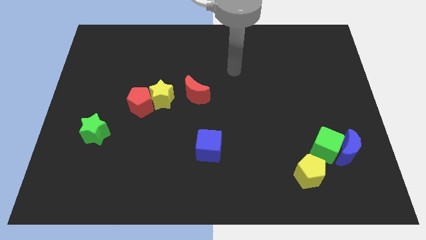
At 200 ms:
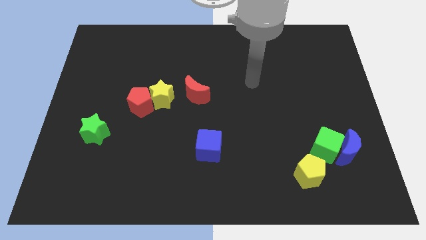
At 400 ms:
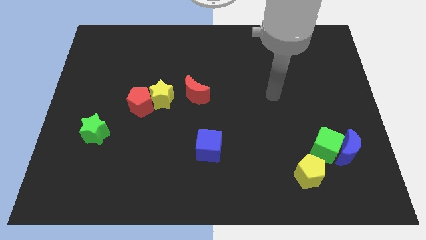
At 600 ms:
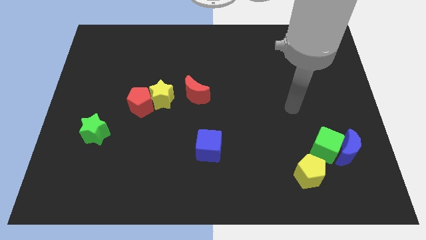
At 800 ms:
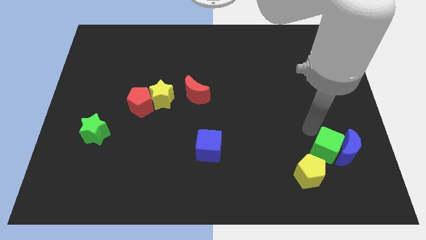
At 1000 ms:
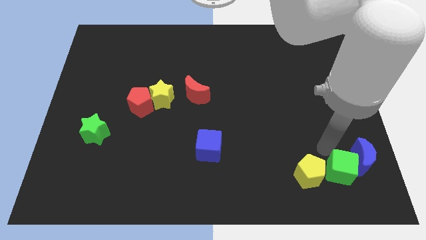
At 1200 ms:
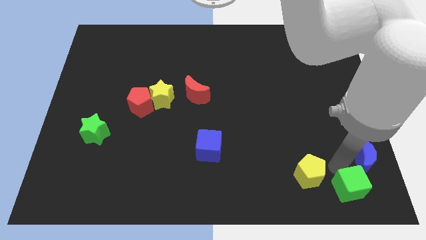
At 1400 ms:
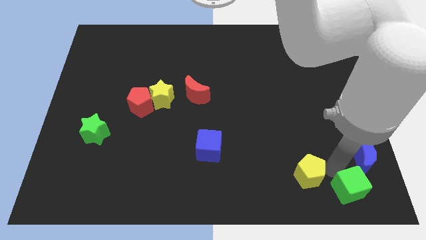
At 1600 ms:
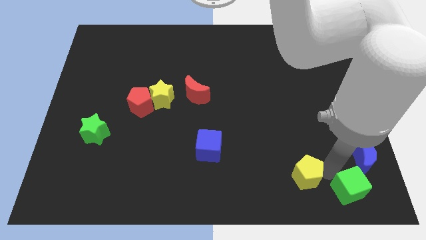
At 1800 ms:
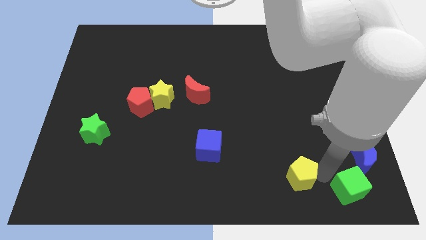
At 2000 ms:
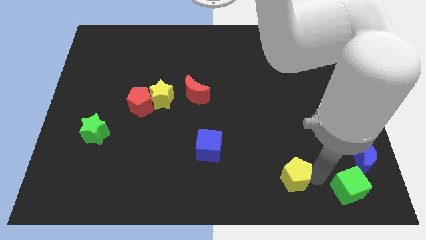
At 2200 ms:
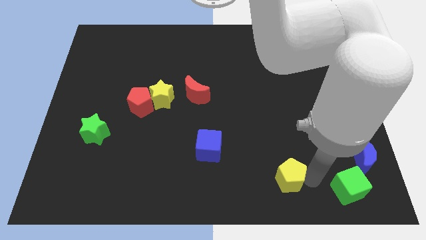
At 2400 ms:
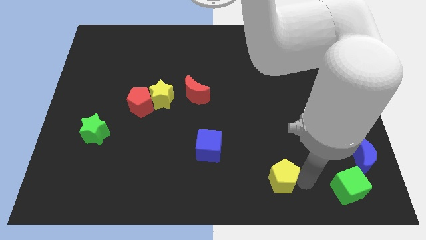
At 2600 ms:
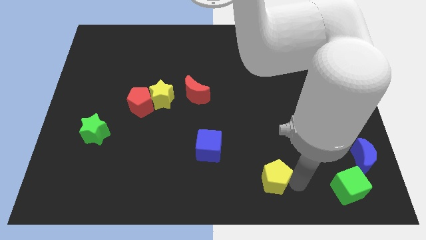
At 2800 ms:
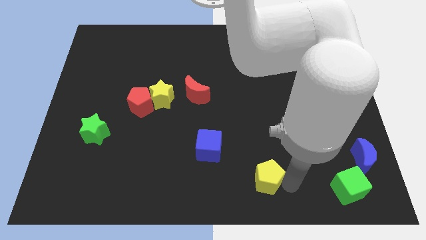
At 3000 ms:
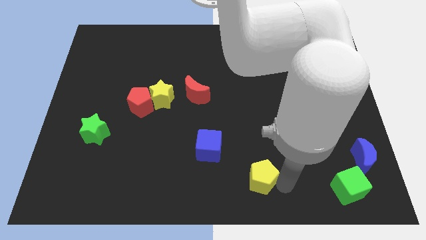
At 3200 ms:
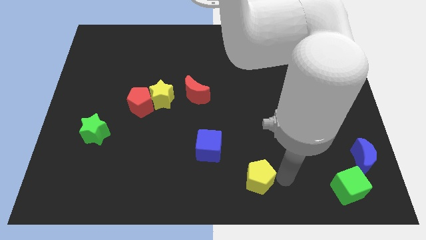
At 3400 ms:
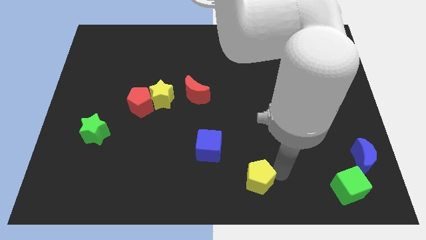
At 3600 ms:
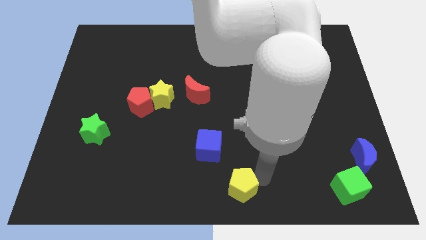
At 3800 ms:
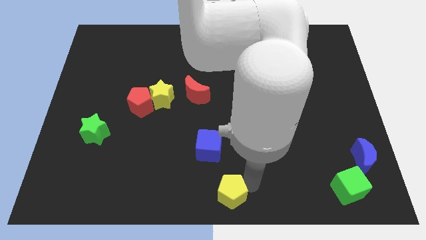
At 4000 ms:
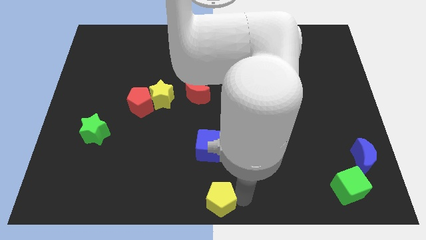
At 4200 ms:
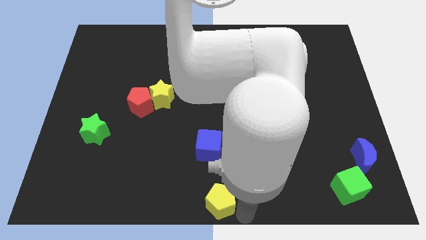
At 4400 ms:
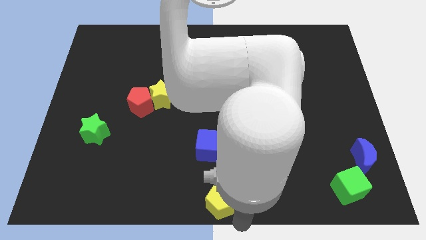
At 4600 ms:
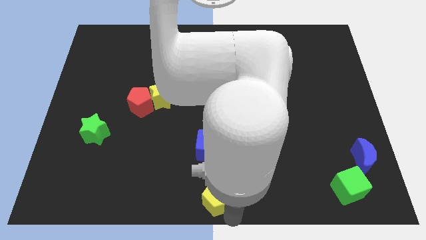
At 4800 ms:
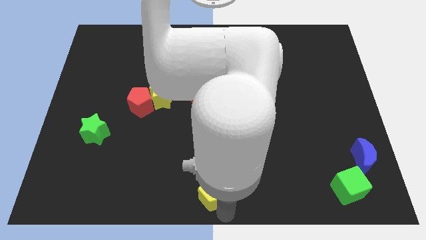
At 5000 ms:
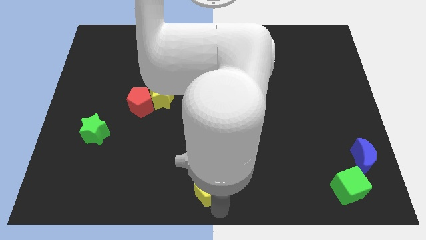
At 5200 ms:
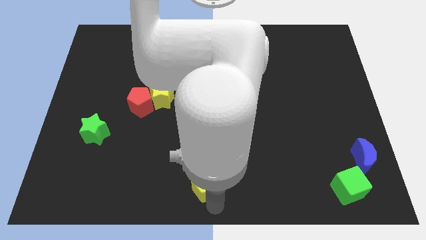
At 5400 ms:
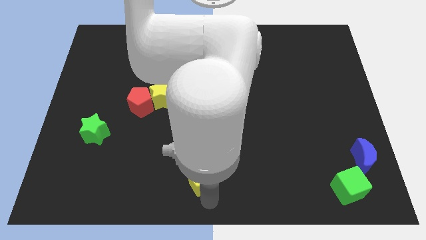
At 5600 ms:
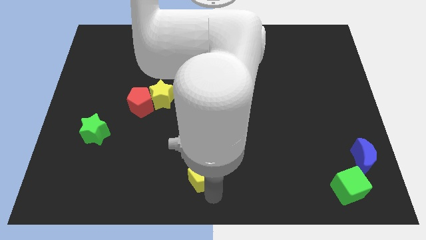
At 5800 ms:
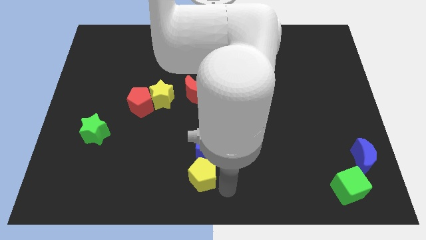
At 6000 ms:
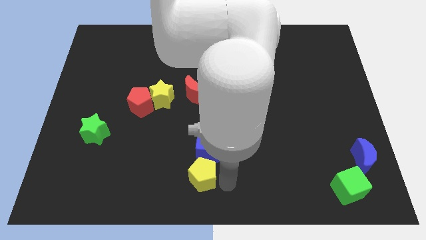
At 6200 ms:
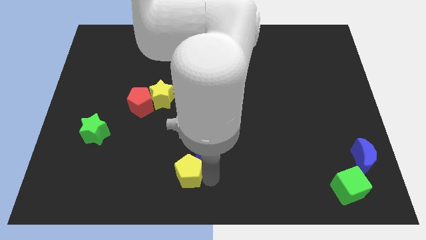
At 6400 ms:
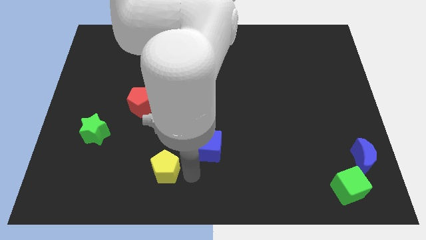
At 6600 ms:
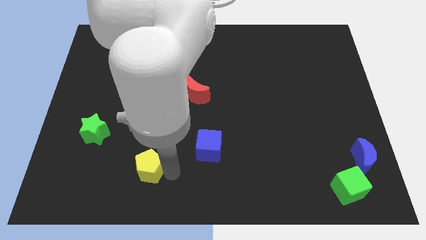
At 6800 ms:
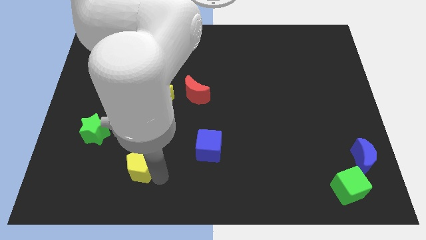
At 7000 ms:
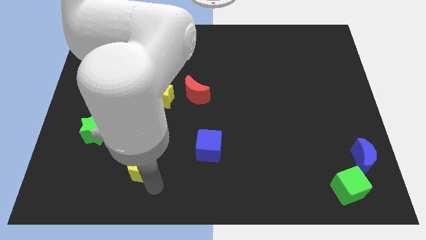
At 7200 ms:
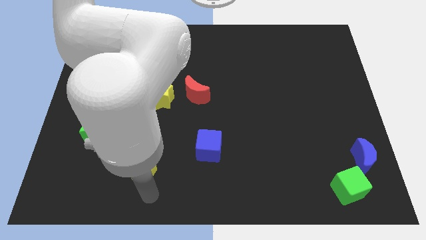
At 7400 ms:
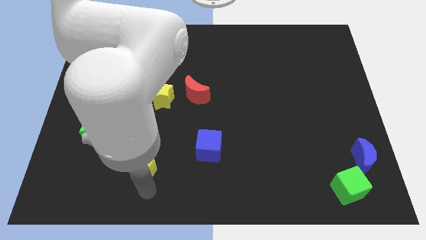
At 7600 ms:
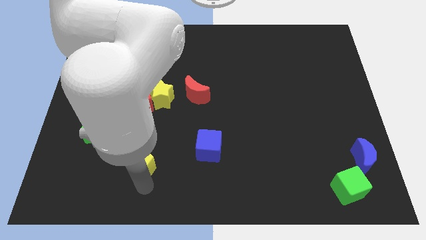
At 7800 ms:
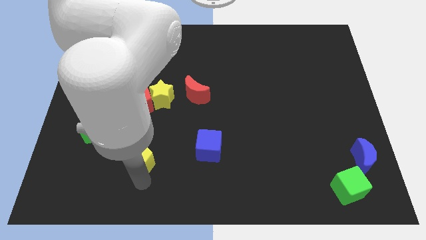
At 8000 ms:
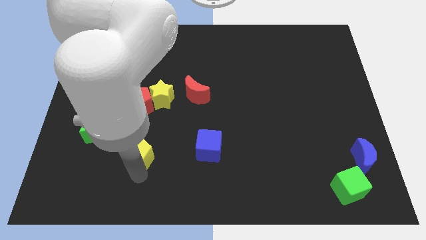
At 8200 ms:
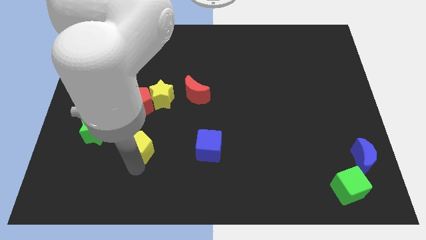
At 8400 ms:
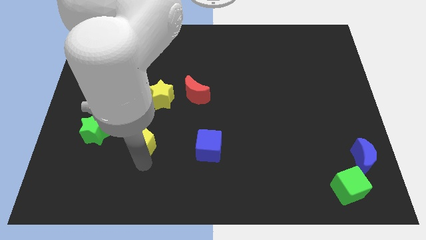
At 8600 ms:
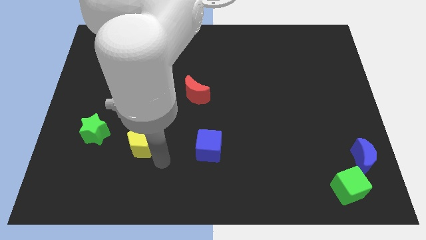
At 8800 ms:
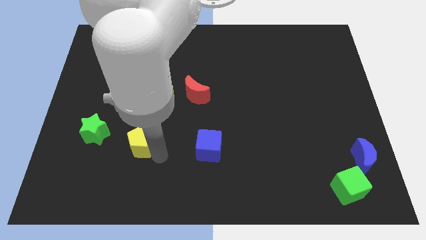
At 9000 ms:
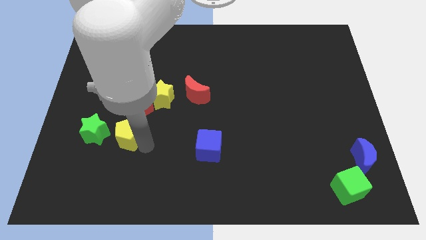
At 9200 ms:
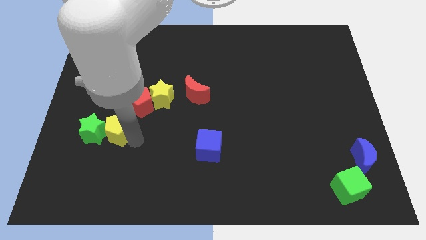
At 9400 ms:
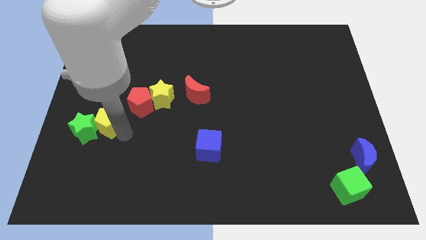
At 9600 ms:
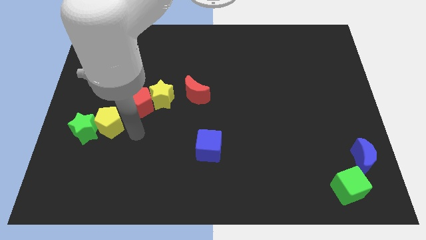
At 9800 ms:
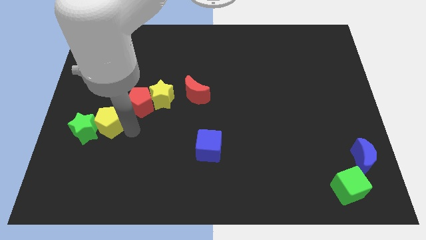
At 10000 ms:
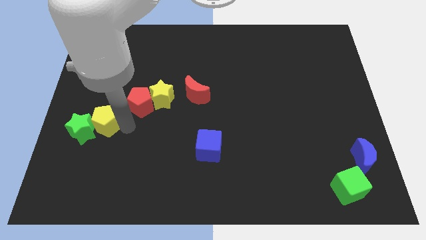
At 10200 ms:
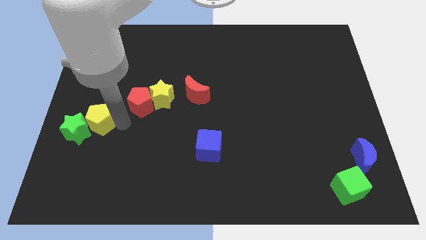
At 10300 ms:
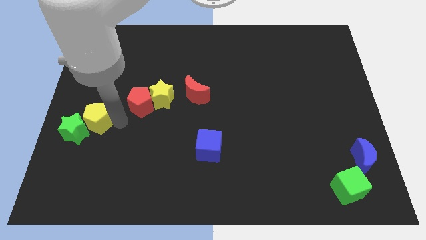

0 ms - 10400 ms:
slide the yellow pentagon to the center left

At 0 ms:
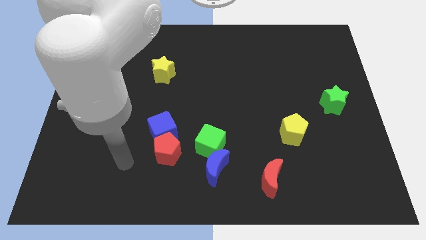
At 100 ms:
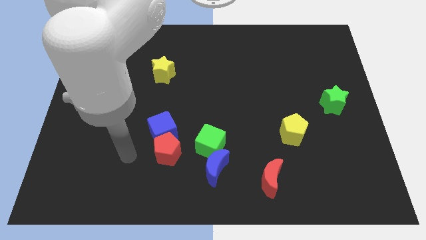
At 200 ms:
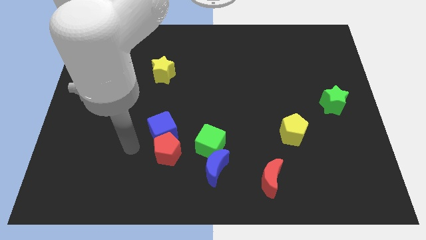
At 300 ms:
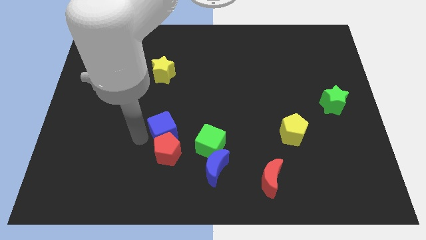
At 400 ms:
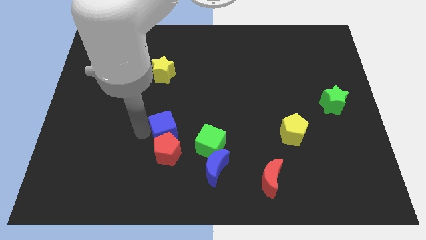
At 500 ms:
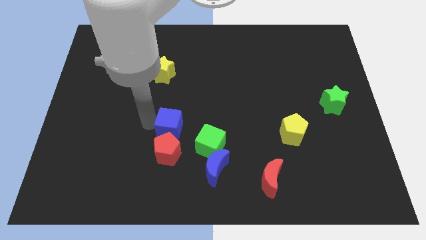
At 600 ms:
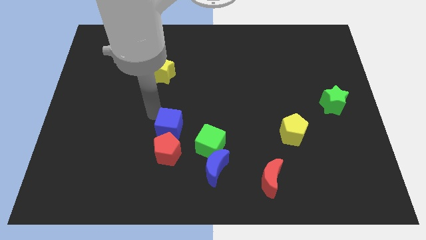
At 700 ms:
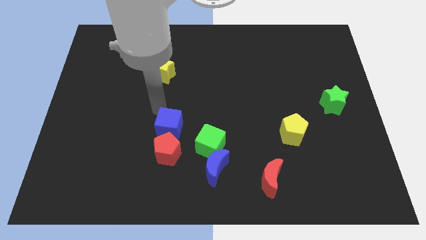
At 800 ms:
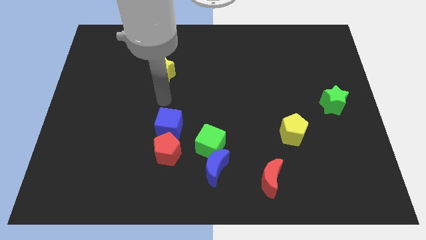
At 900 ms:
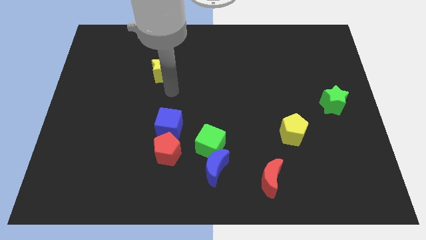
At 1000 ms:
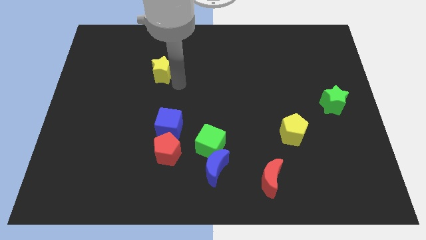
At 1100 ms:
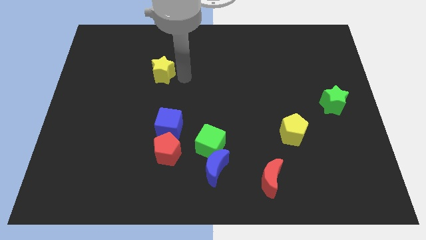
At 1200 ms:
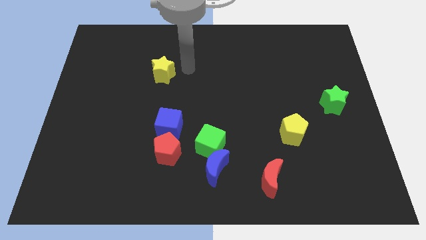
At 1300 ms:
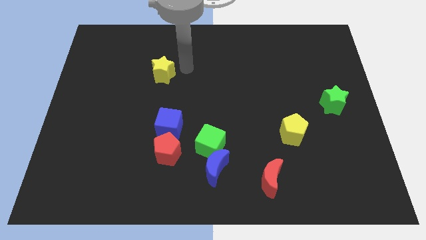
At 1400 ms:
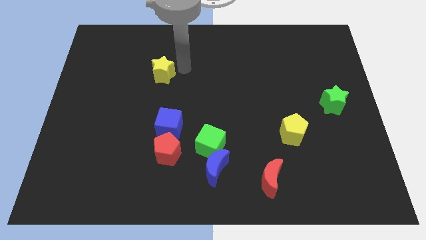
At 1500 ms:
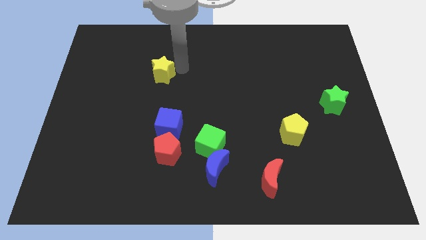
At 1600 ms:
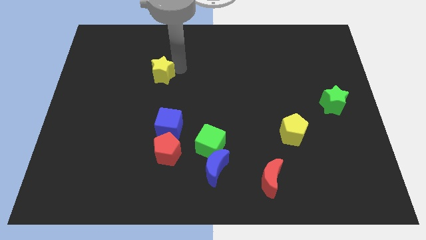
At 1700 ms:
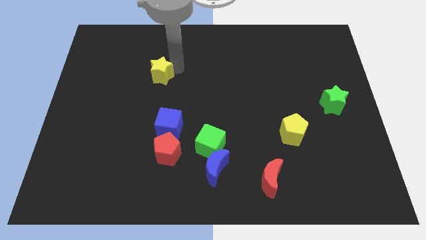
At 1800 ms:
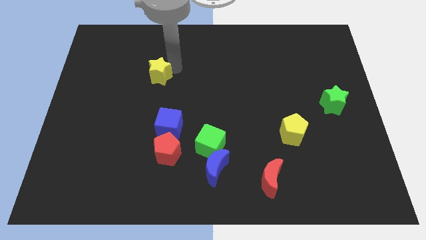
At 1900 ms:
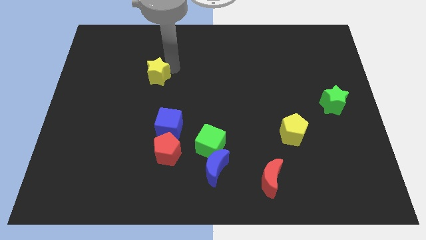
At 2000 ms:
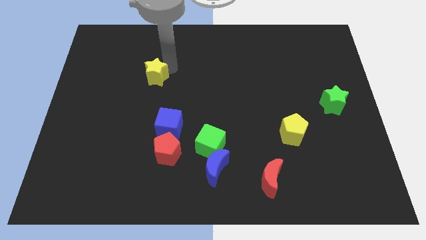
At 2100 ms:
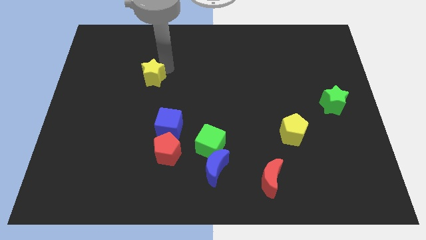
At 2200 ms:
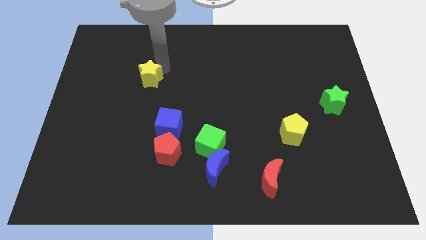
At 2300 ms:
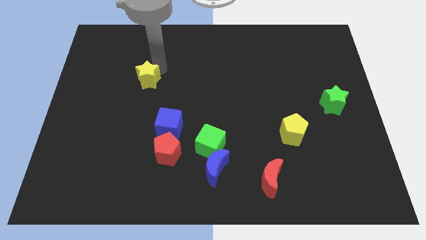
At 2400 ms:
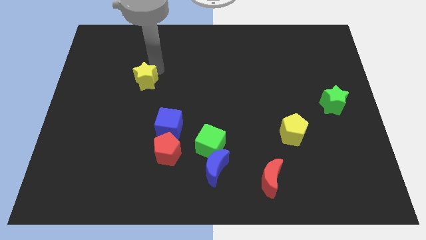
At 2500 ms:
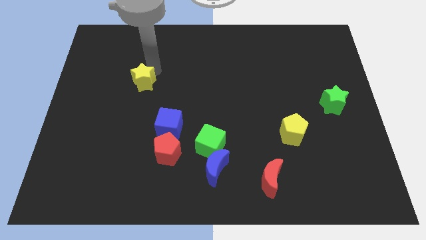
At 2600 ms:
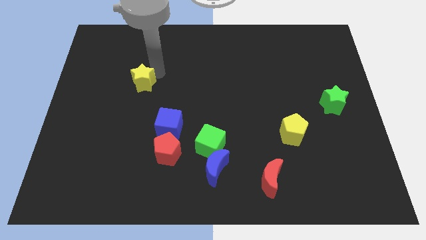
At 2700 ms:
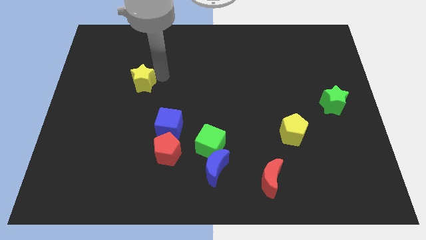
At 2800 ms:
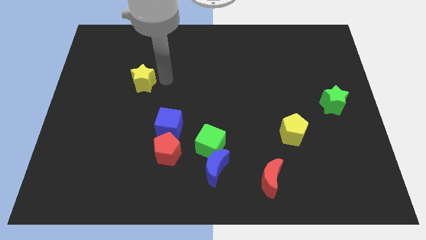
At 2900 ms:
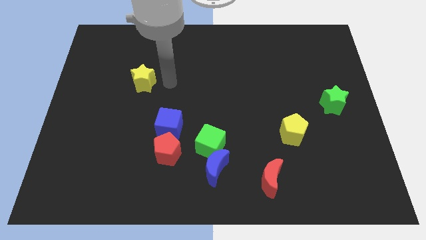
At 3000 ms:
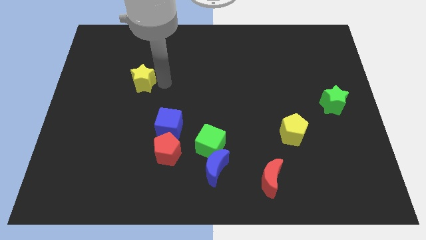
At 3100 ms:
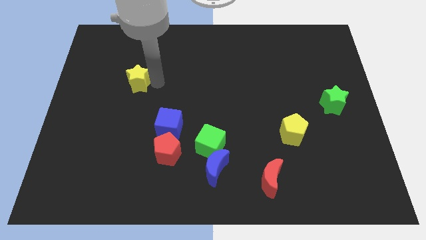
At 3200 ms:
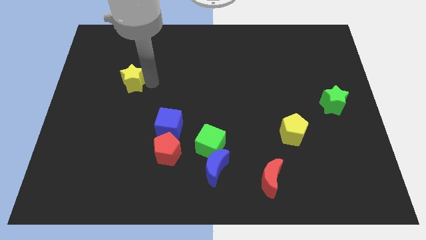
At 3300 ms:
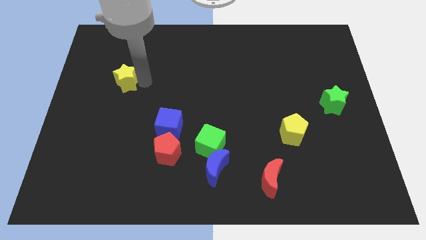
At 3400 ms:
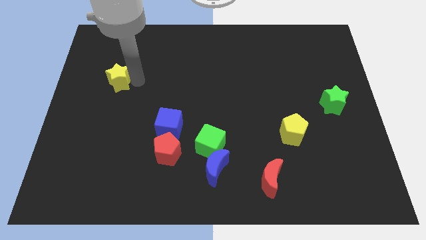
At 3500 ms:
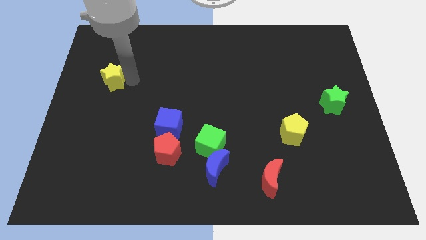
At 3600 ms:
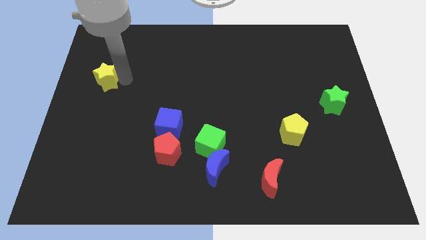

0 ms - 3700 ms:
put the yellow star to the left side
